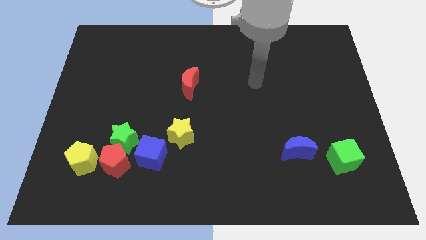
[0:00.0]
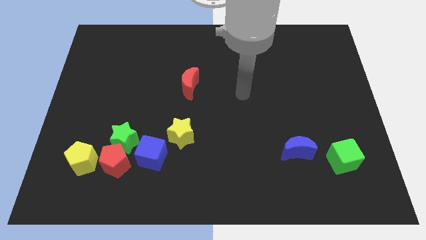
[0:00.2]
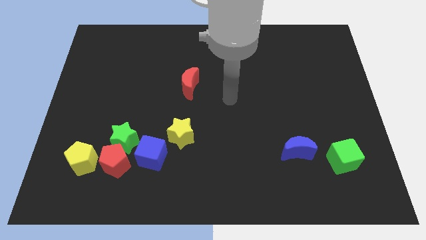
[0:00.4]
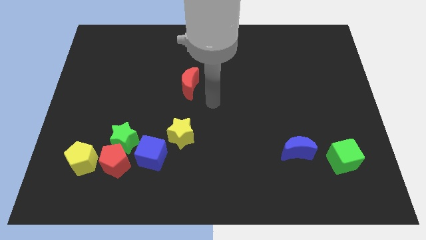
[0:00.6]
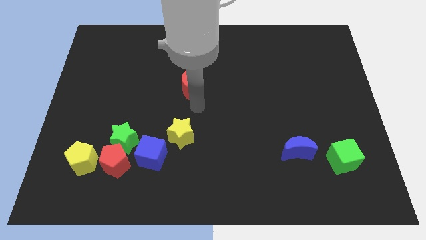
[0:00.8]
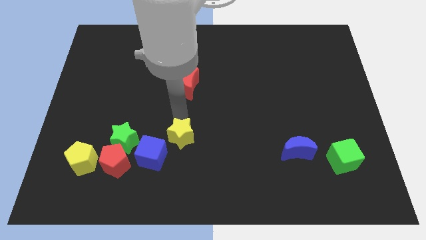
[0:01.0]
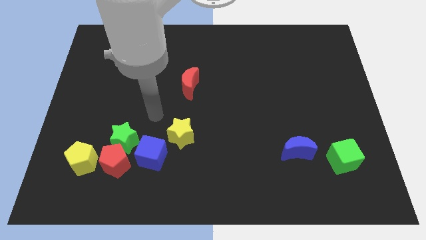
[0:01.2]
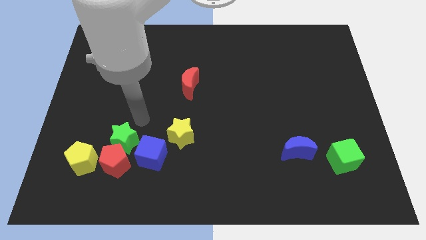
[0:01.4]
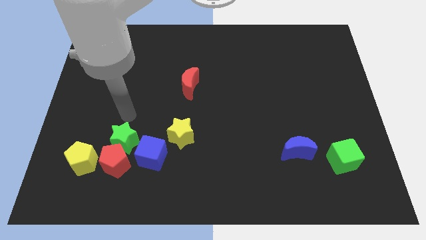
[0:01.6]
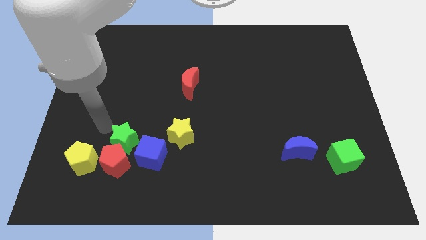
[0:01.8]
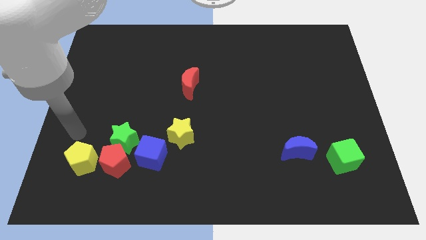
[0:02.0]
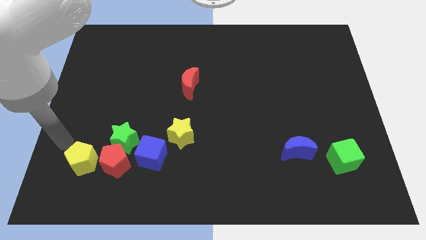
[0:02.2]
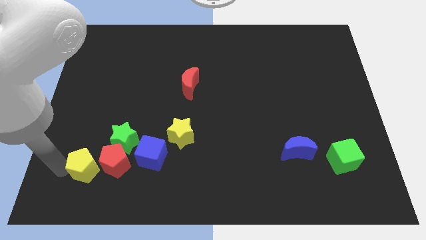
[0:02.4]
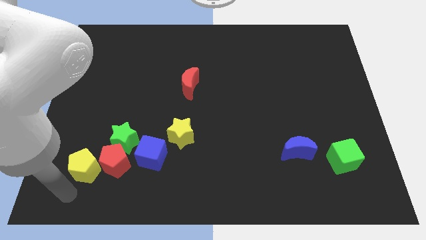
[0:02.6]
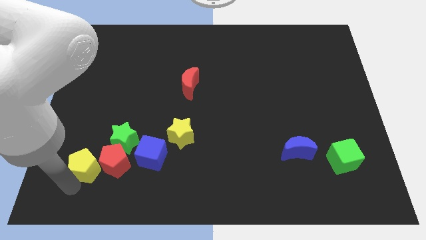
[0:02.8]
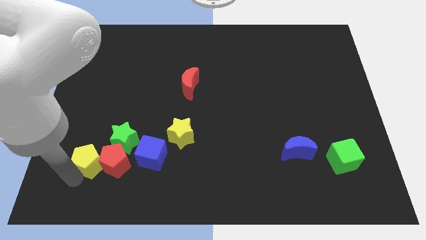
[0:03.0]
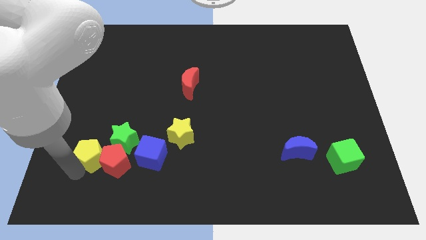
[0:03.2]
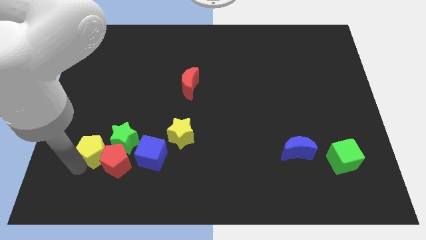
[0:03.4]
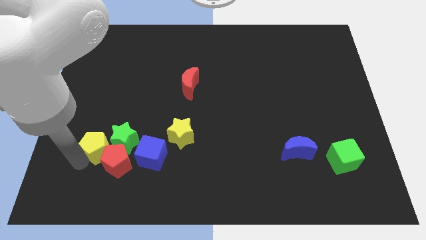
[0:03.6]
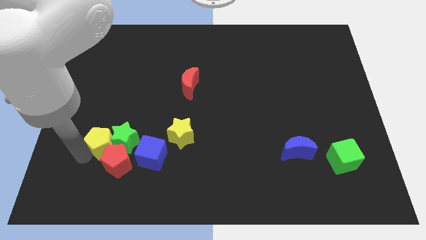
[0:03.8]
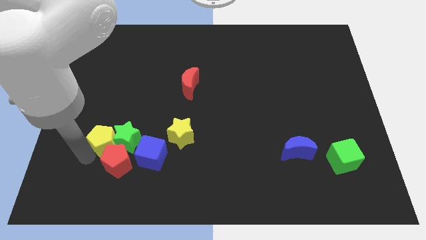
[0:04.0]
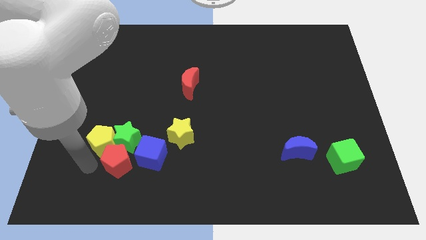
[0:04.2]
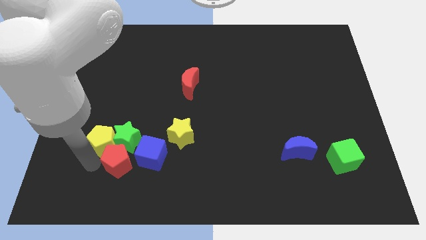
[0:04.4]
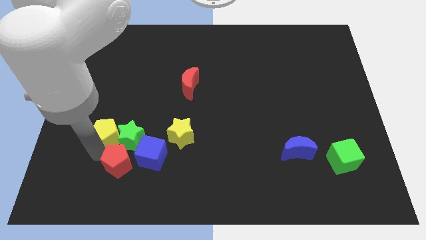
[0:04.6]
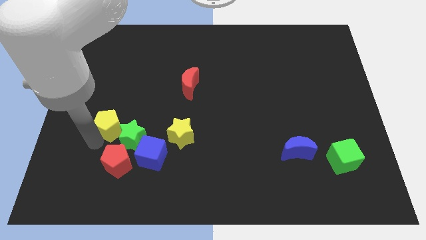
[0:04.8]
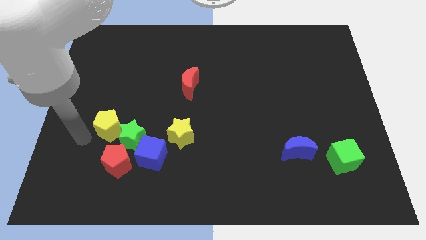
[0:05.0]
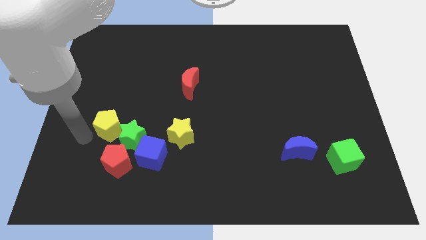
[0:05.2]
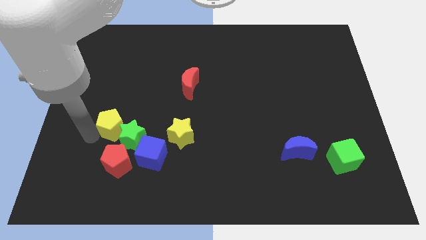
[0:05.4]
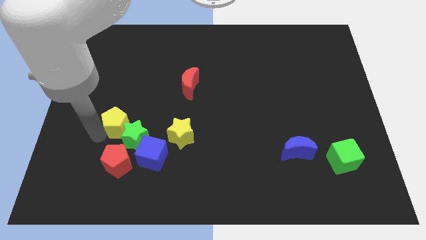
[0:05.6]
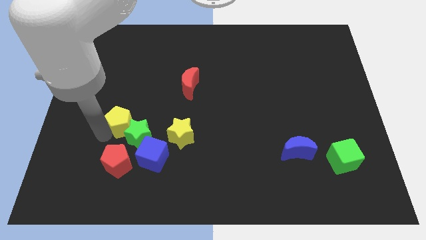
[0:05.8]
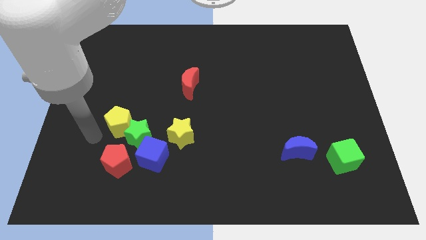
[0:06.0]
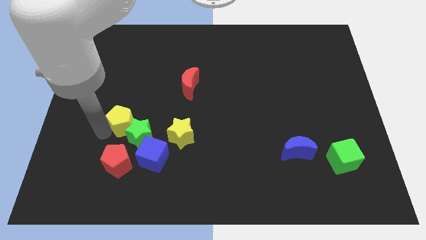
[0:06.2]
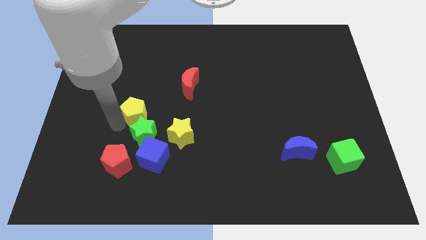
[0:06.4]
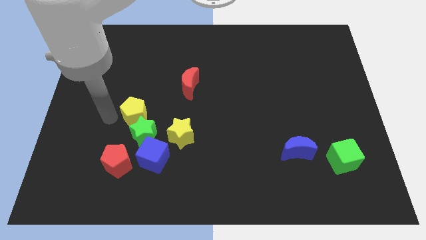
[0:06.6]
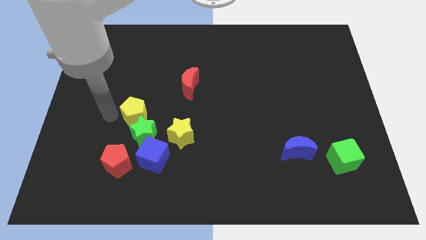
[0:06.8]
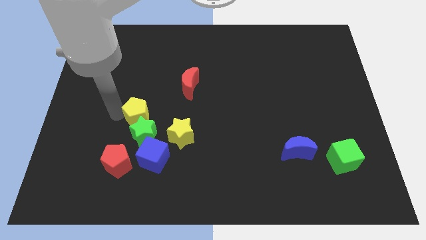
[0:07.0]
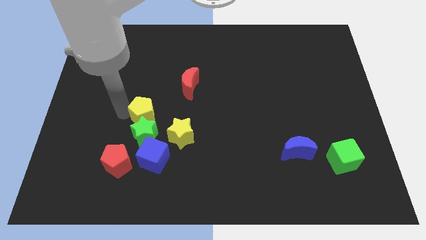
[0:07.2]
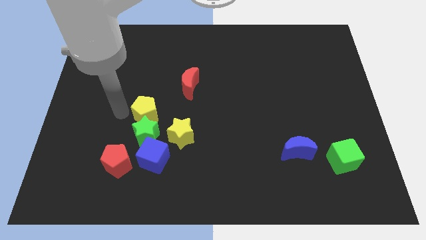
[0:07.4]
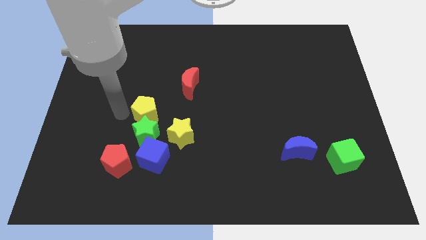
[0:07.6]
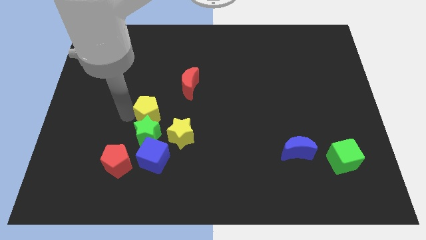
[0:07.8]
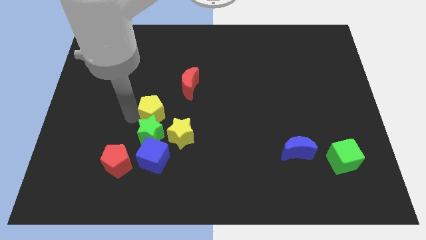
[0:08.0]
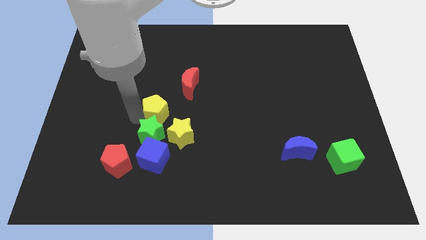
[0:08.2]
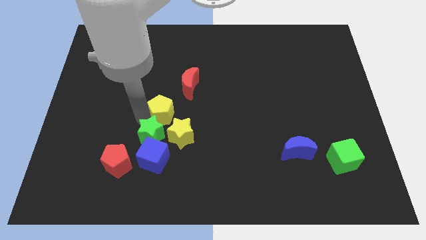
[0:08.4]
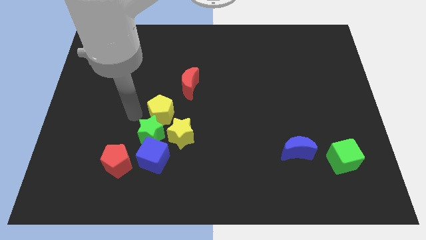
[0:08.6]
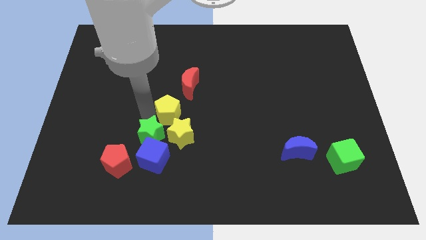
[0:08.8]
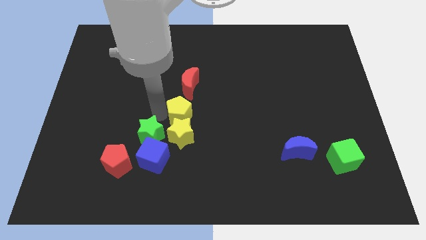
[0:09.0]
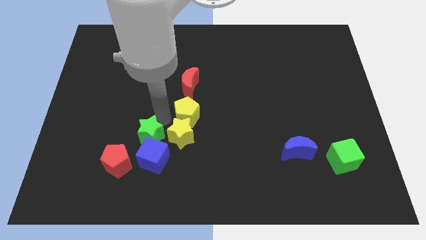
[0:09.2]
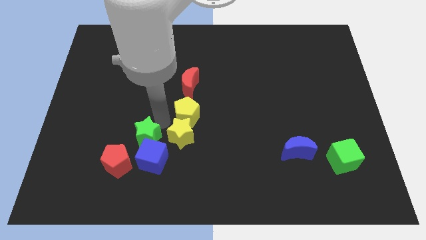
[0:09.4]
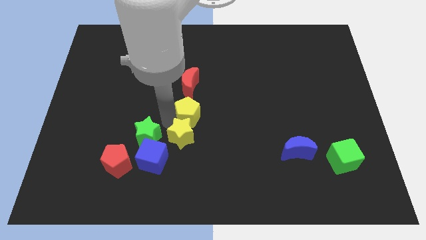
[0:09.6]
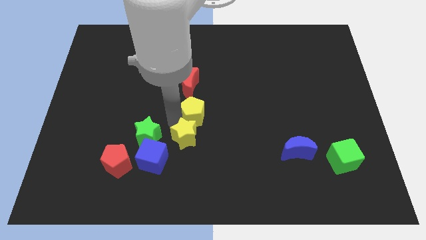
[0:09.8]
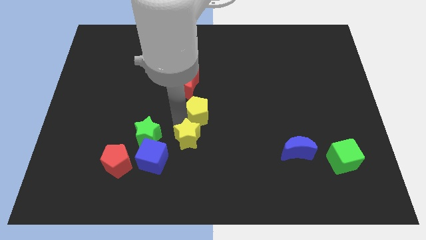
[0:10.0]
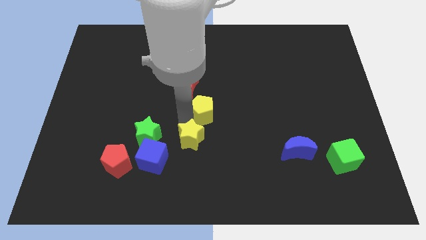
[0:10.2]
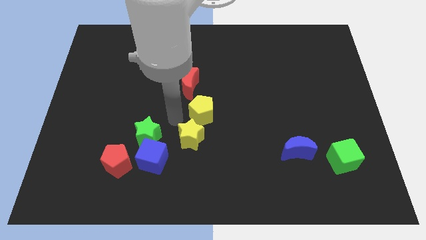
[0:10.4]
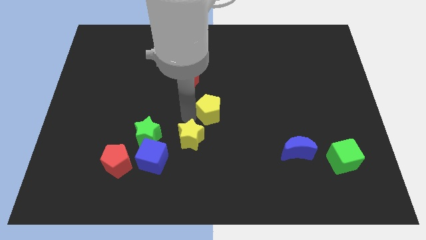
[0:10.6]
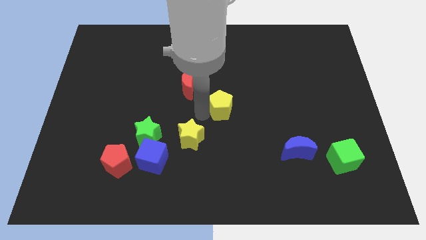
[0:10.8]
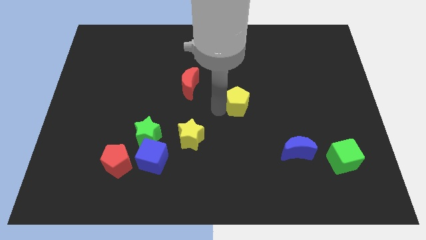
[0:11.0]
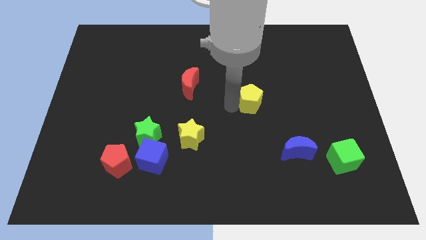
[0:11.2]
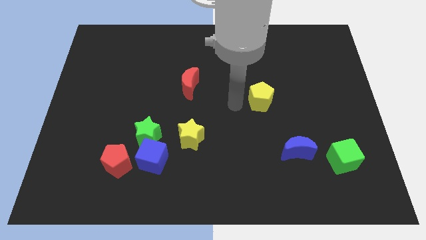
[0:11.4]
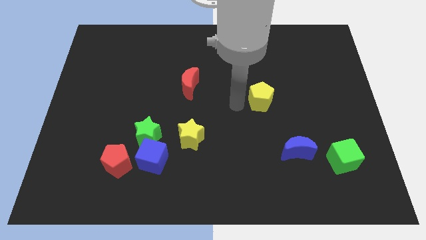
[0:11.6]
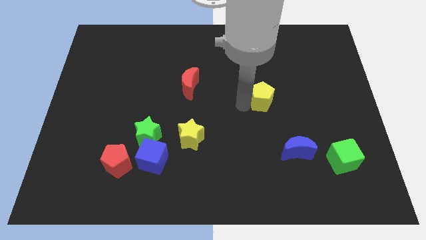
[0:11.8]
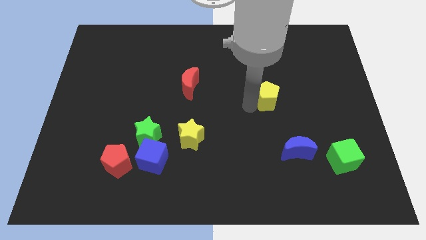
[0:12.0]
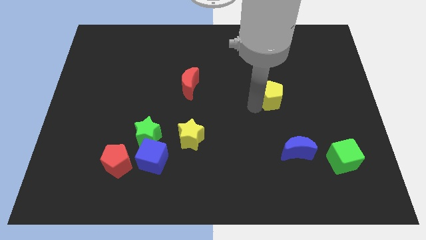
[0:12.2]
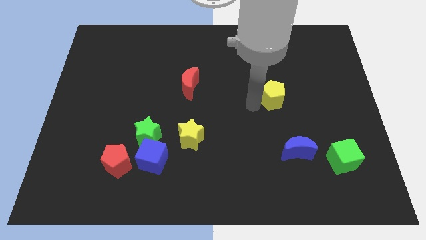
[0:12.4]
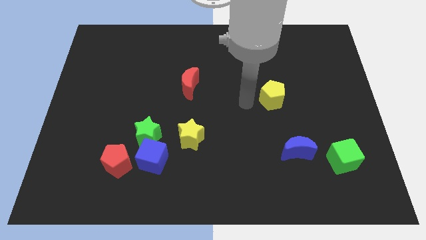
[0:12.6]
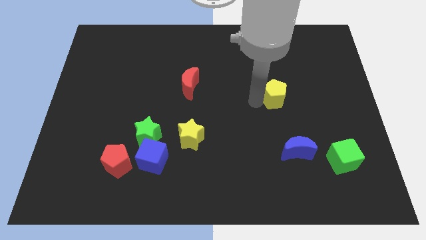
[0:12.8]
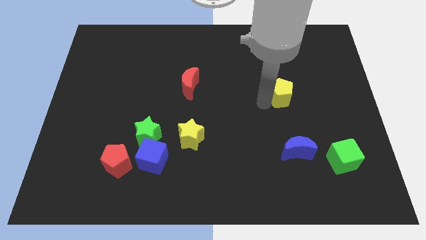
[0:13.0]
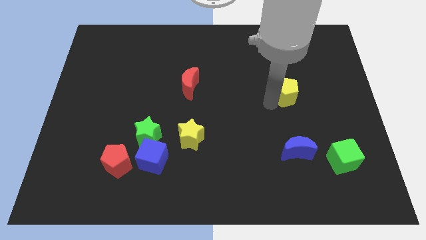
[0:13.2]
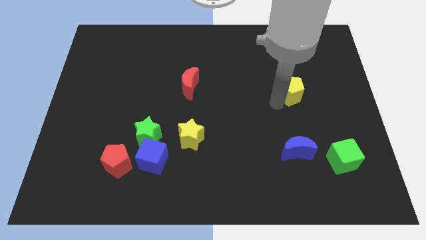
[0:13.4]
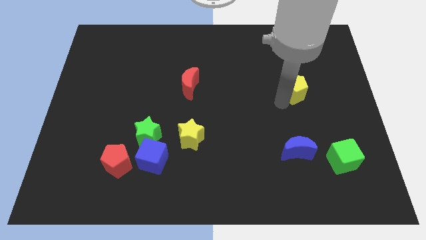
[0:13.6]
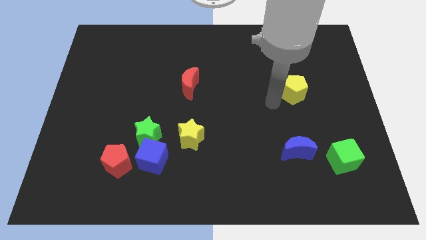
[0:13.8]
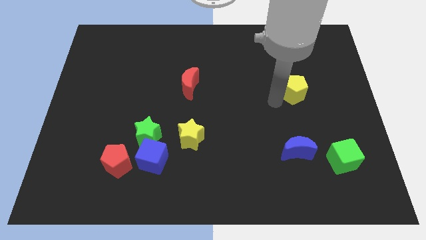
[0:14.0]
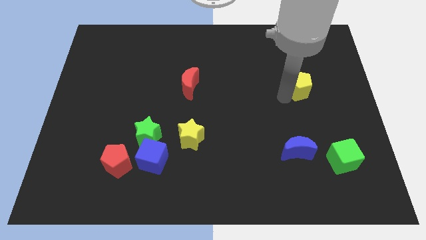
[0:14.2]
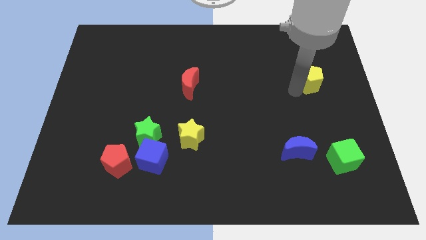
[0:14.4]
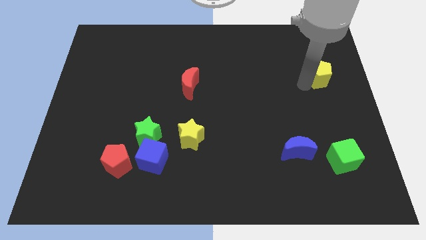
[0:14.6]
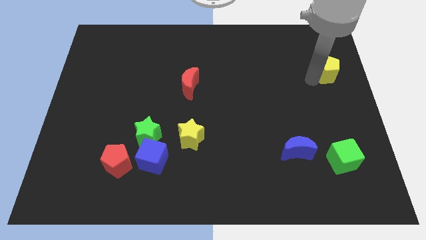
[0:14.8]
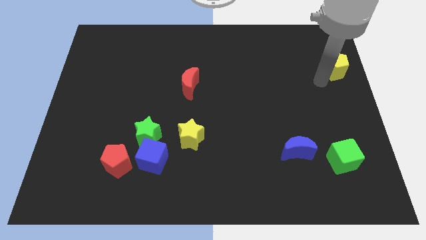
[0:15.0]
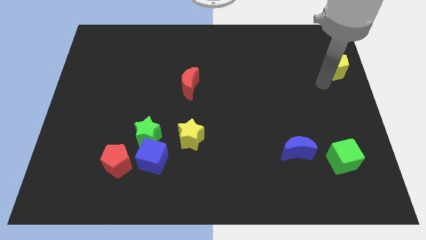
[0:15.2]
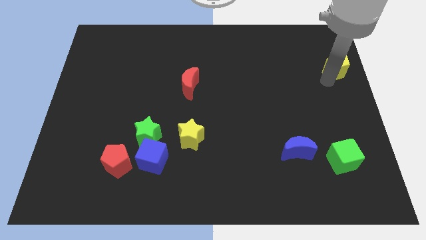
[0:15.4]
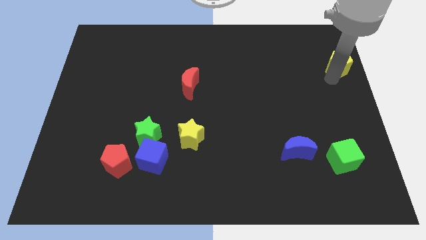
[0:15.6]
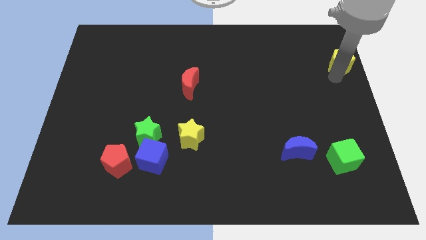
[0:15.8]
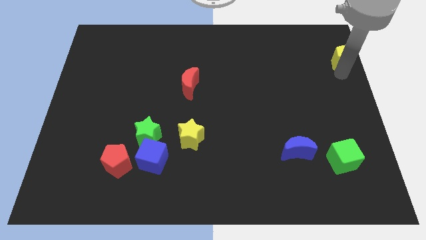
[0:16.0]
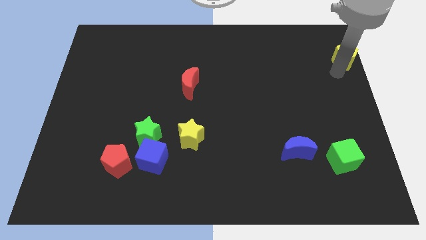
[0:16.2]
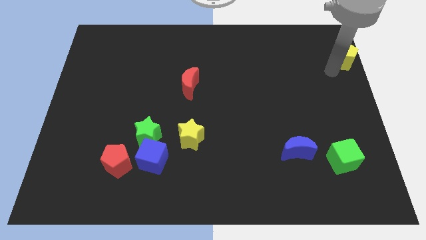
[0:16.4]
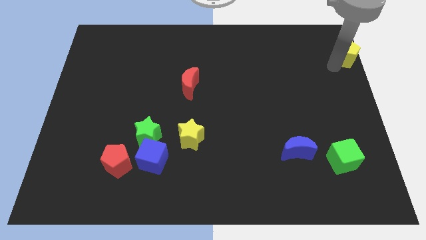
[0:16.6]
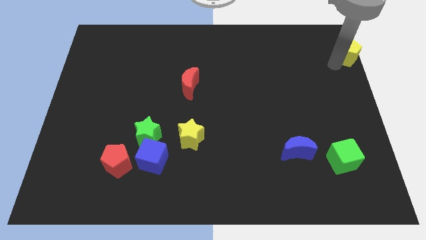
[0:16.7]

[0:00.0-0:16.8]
push the yellow pentagon to the top right of the board
